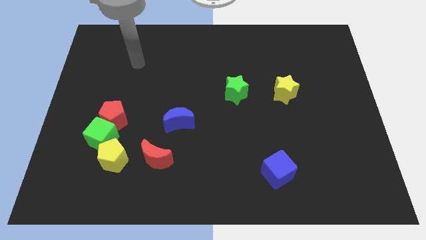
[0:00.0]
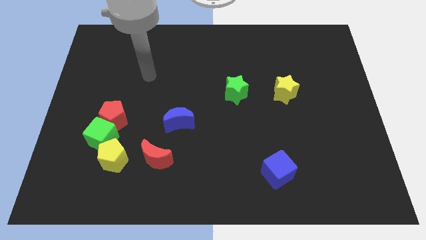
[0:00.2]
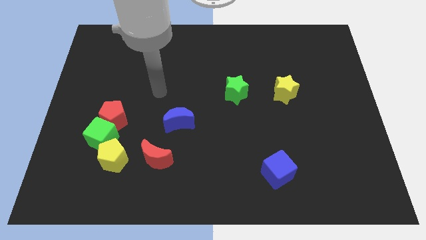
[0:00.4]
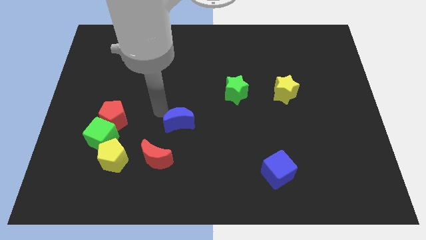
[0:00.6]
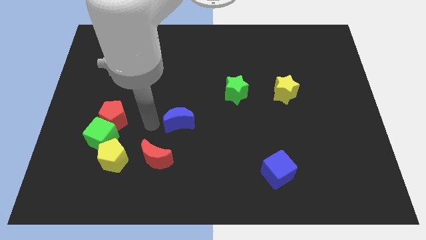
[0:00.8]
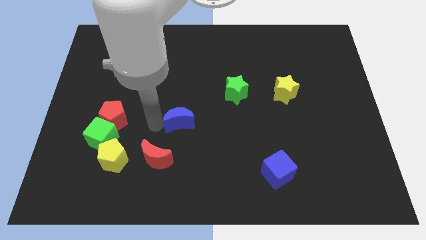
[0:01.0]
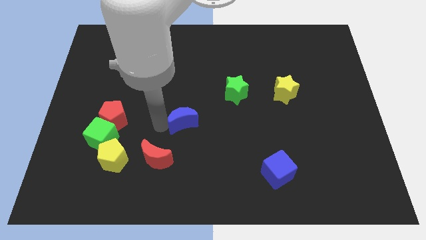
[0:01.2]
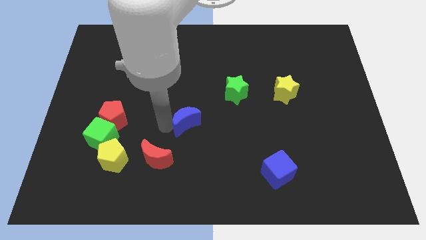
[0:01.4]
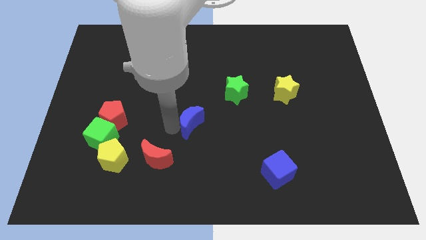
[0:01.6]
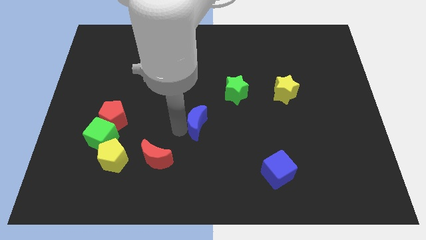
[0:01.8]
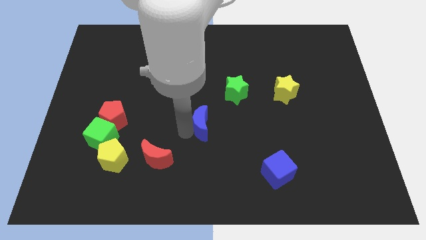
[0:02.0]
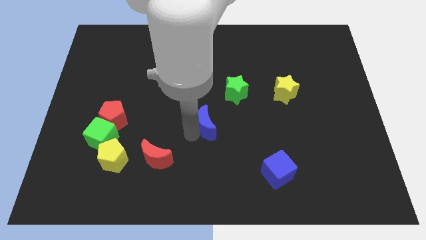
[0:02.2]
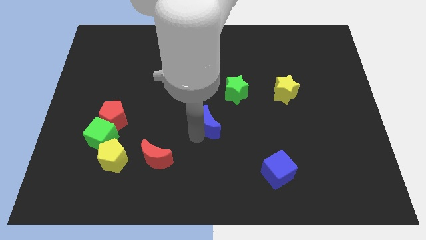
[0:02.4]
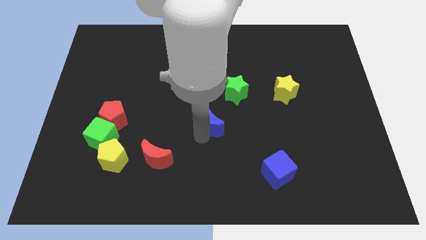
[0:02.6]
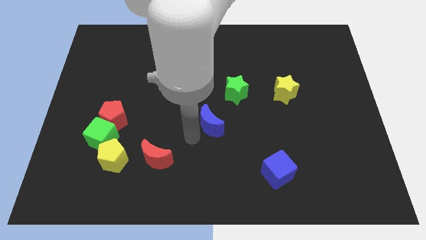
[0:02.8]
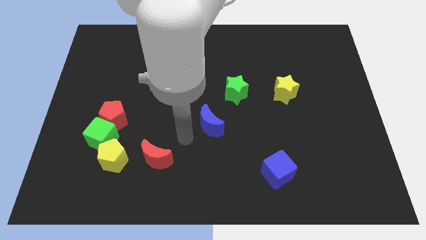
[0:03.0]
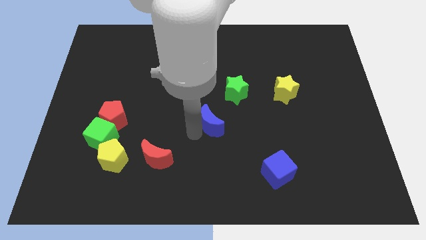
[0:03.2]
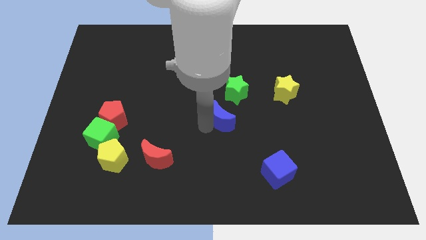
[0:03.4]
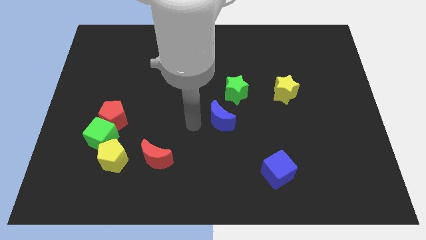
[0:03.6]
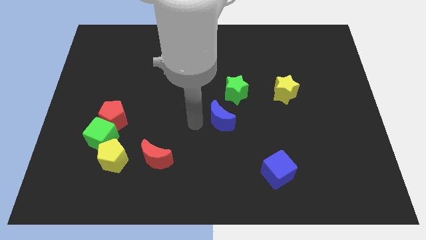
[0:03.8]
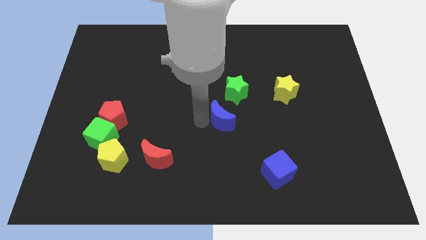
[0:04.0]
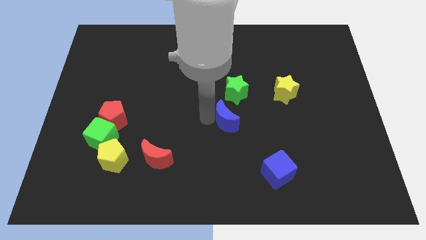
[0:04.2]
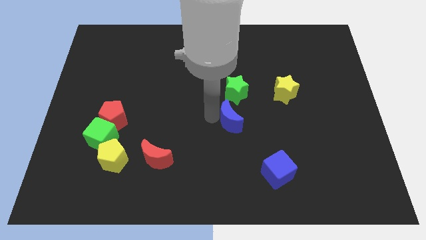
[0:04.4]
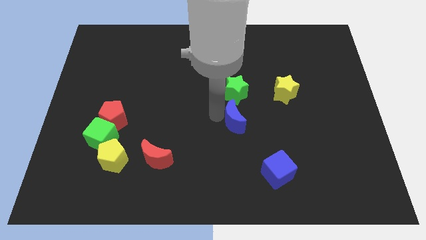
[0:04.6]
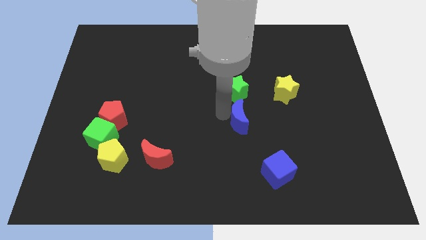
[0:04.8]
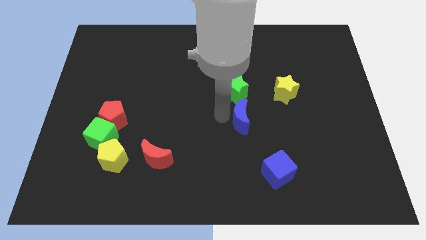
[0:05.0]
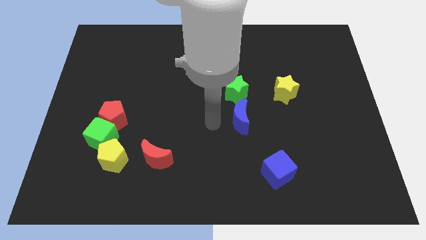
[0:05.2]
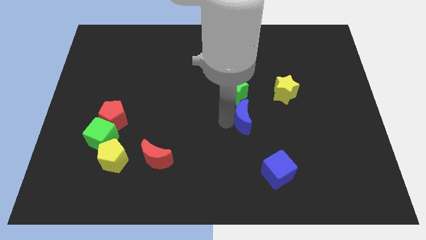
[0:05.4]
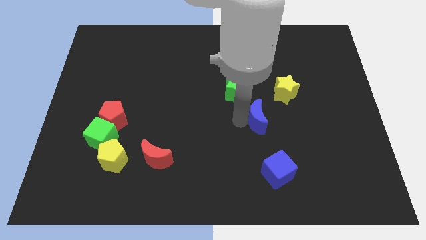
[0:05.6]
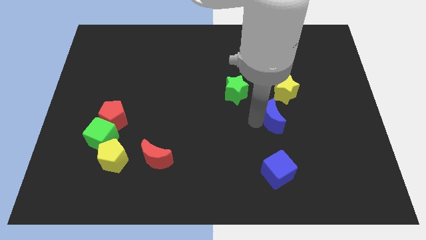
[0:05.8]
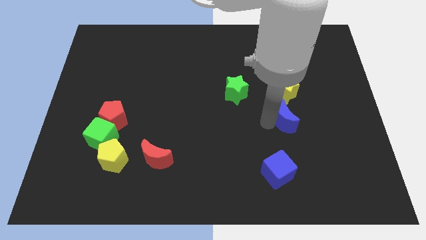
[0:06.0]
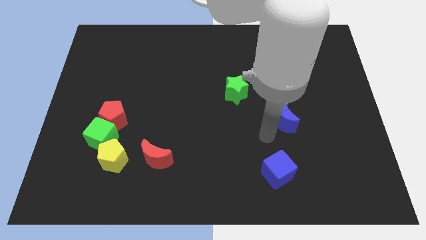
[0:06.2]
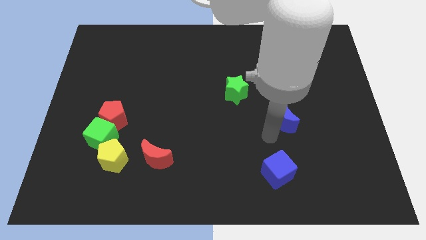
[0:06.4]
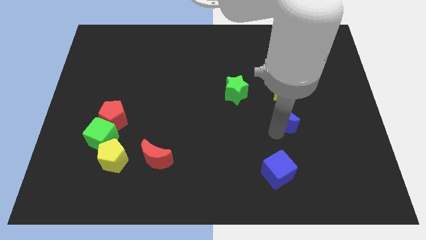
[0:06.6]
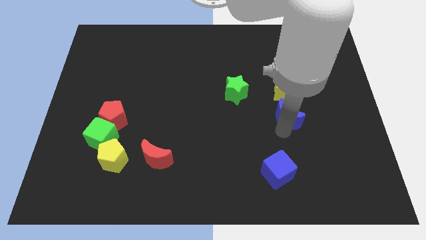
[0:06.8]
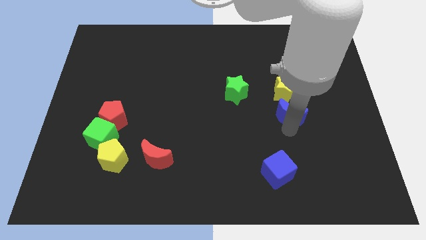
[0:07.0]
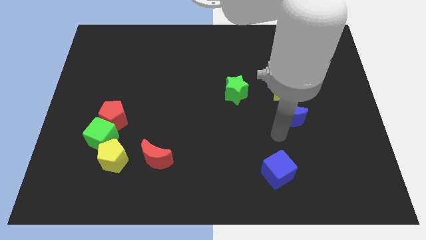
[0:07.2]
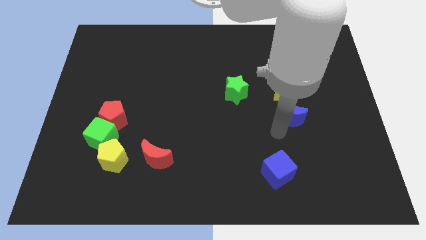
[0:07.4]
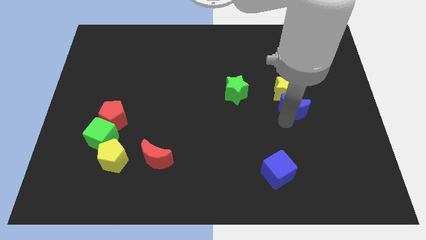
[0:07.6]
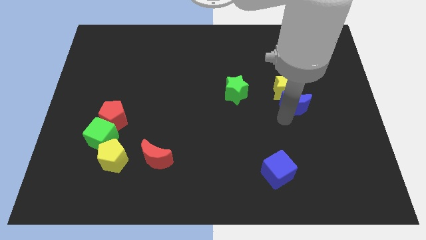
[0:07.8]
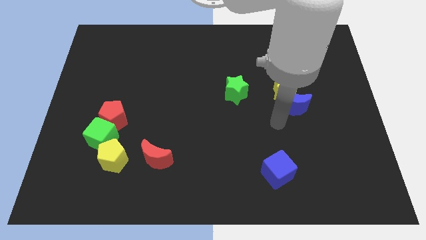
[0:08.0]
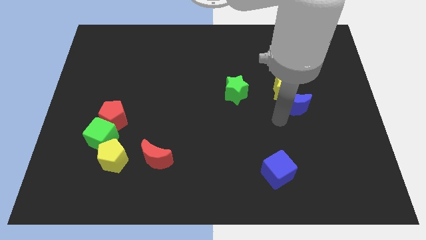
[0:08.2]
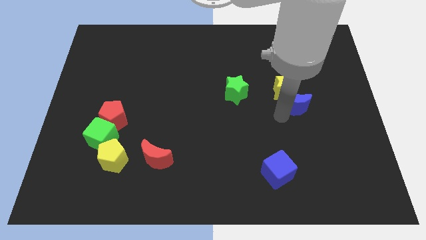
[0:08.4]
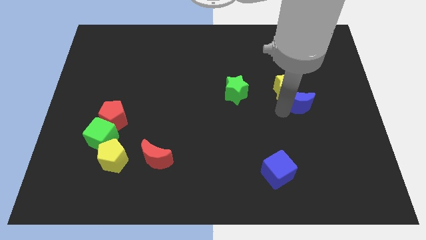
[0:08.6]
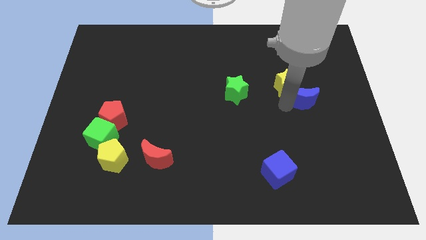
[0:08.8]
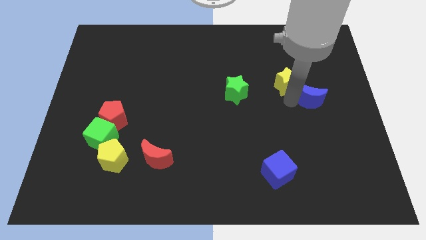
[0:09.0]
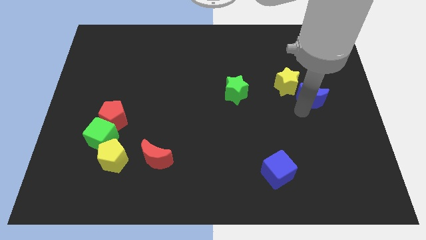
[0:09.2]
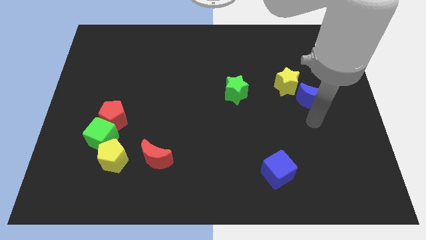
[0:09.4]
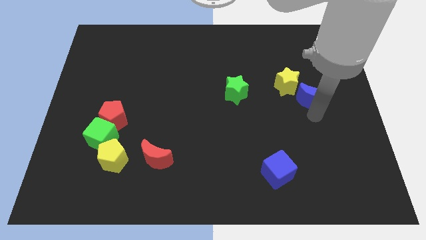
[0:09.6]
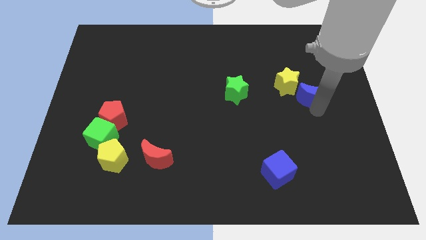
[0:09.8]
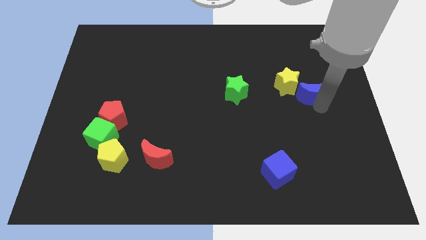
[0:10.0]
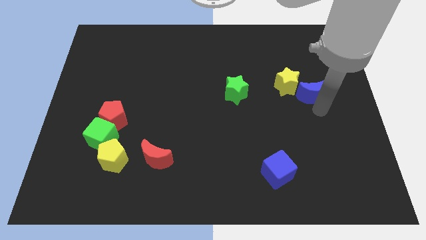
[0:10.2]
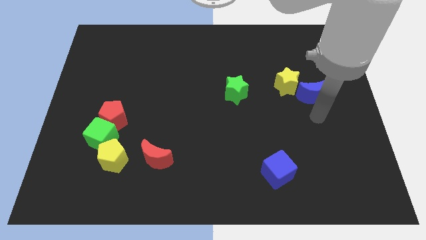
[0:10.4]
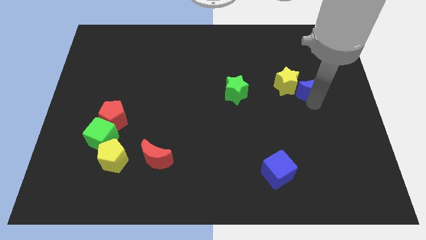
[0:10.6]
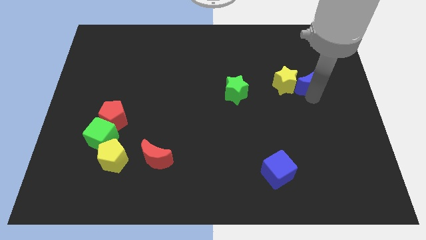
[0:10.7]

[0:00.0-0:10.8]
slide the blue moon to the top right side of the yellow star

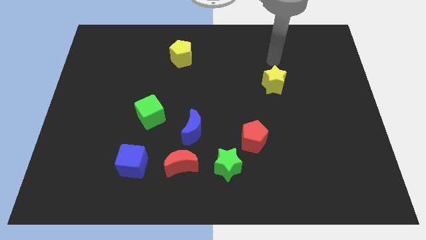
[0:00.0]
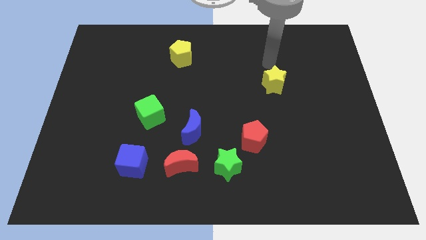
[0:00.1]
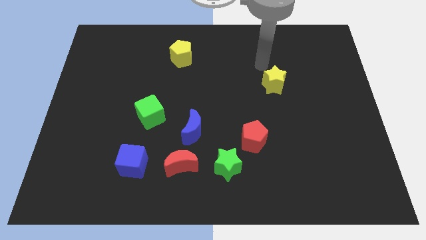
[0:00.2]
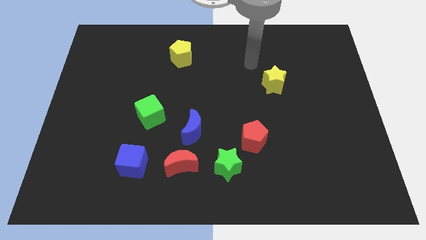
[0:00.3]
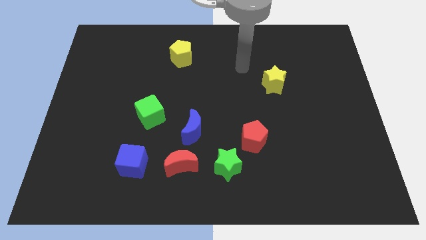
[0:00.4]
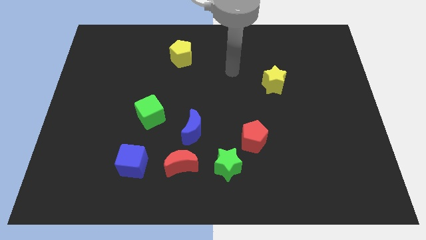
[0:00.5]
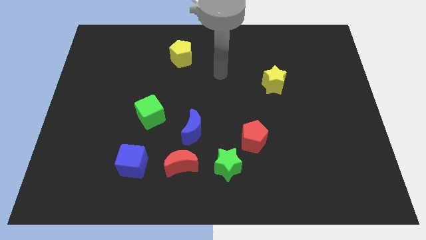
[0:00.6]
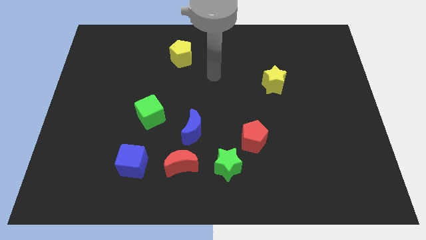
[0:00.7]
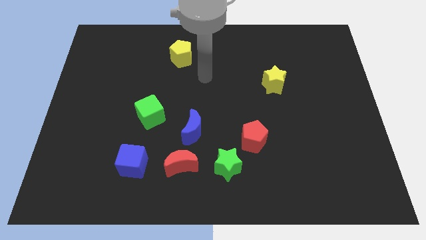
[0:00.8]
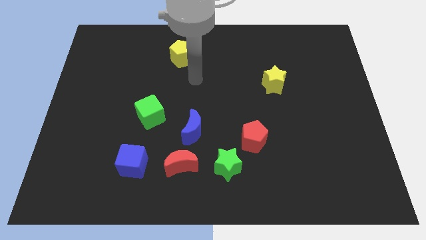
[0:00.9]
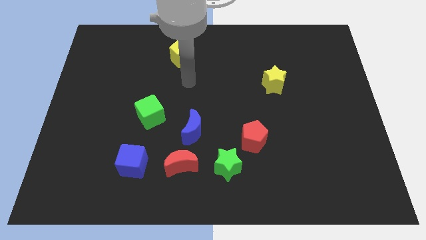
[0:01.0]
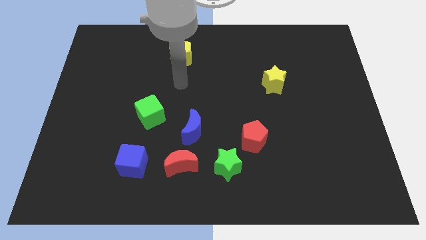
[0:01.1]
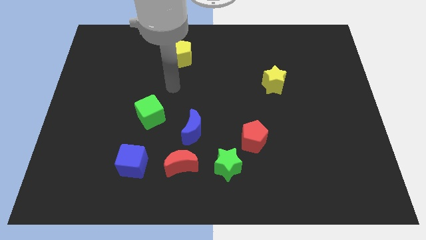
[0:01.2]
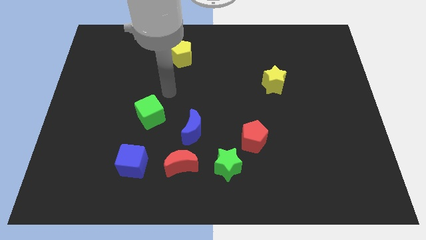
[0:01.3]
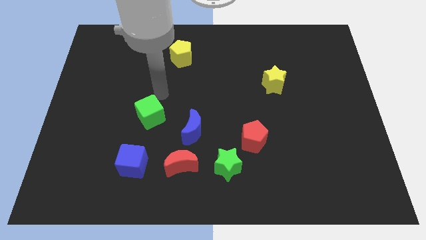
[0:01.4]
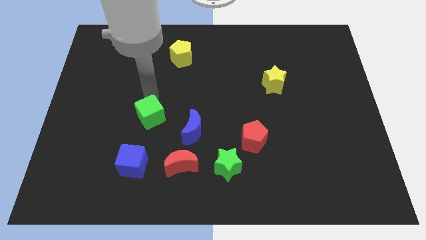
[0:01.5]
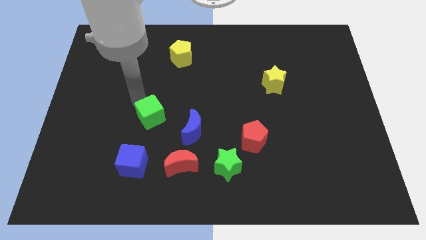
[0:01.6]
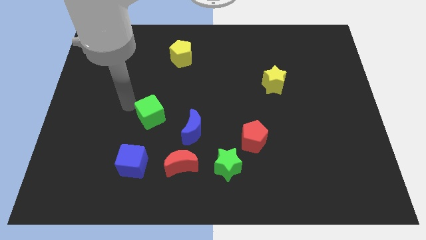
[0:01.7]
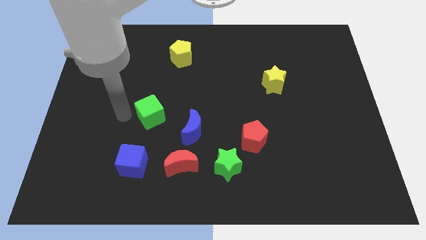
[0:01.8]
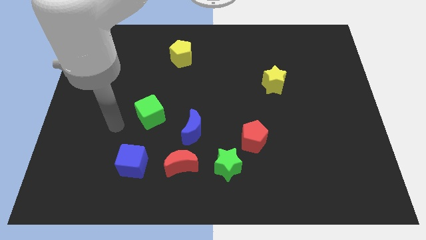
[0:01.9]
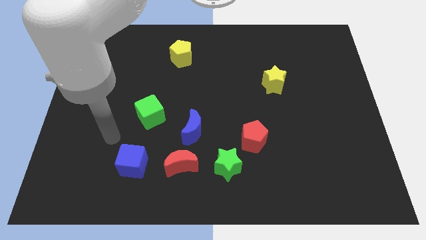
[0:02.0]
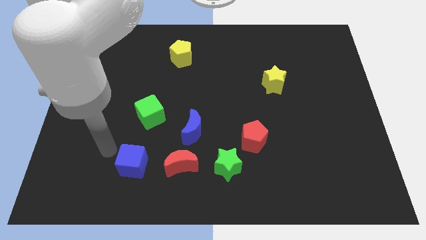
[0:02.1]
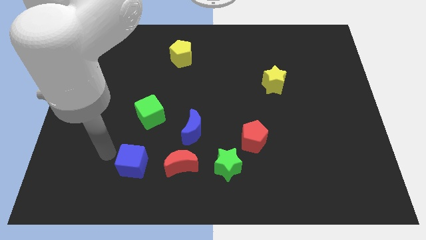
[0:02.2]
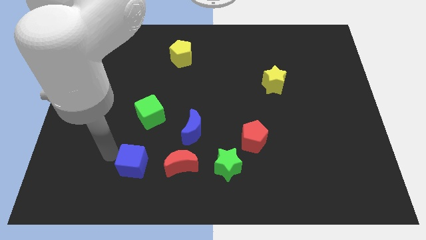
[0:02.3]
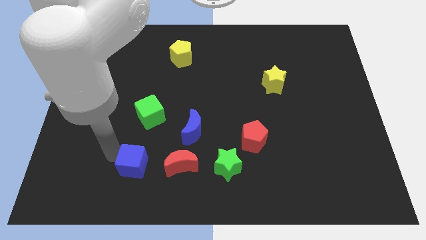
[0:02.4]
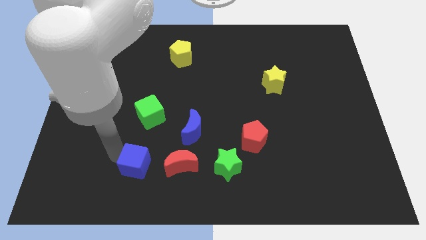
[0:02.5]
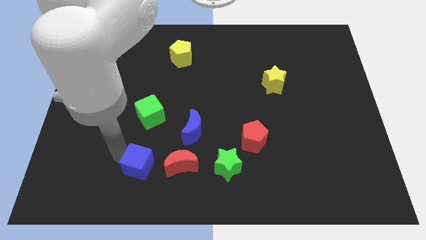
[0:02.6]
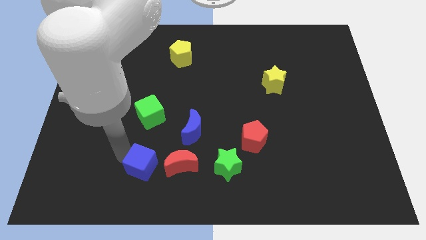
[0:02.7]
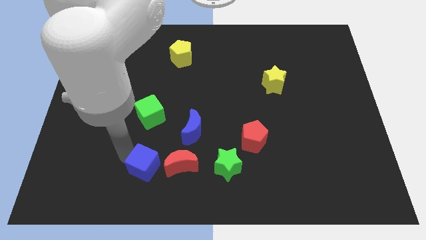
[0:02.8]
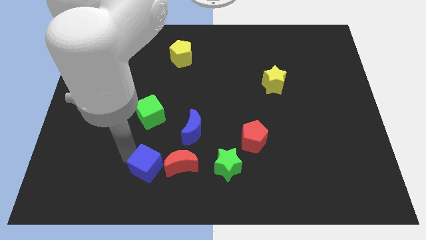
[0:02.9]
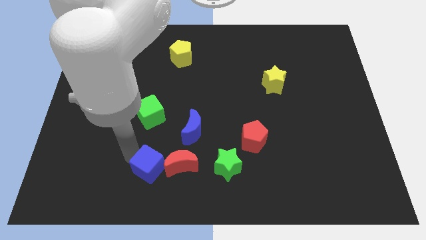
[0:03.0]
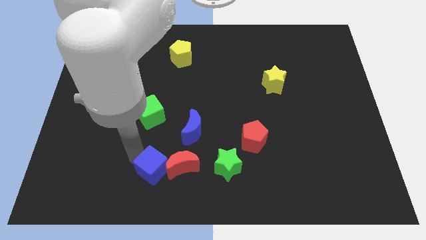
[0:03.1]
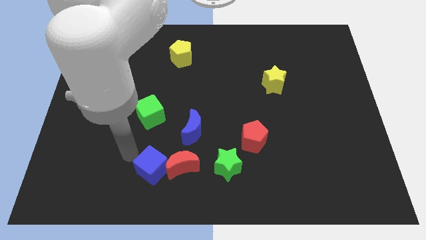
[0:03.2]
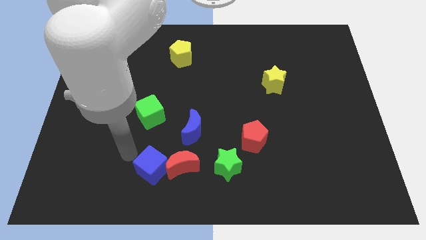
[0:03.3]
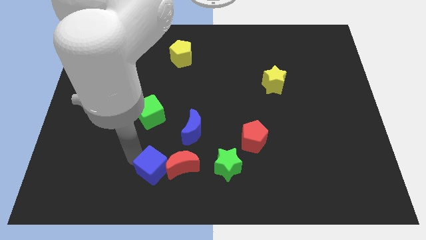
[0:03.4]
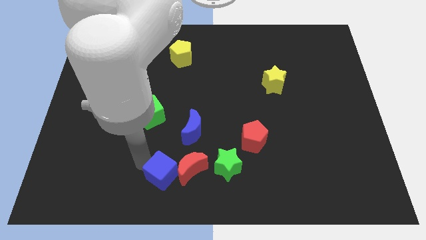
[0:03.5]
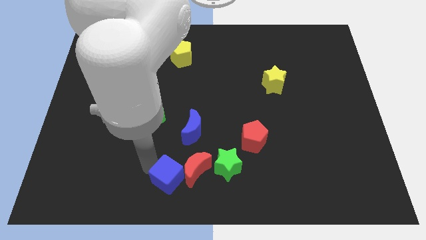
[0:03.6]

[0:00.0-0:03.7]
slide the blue cube below the blue moon
